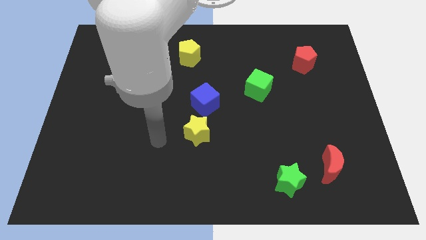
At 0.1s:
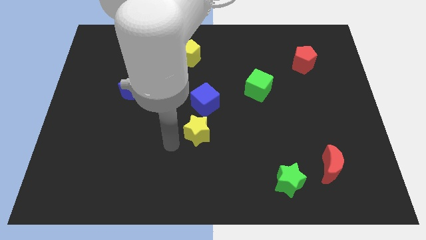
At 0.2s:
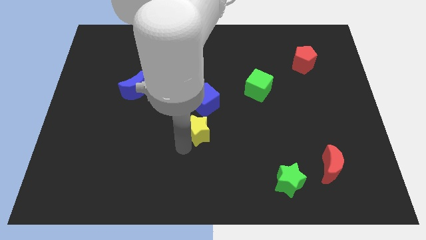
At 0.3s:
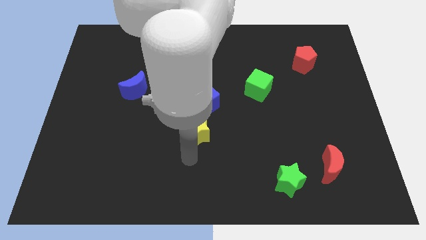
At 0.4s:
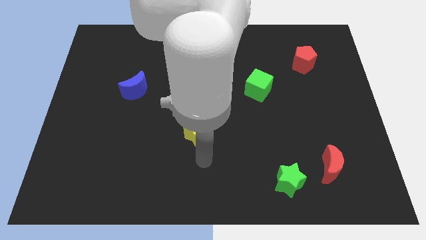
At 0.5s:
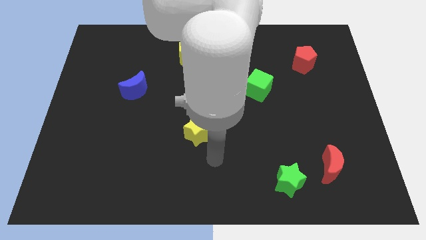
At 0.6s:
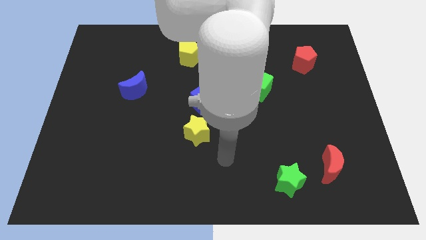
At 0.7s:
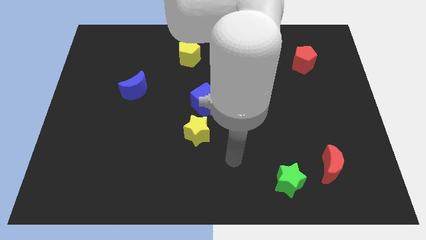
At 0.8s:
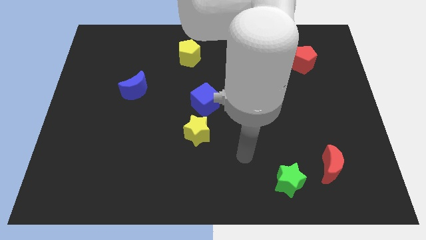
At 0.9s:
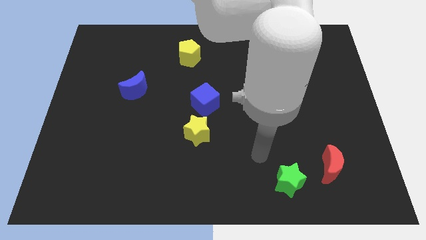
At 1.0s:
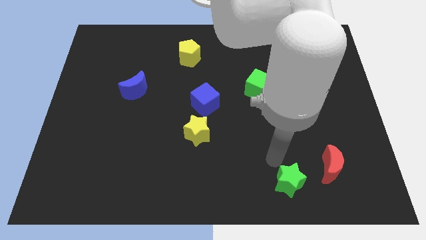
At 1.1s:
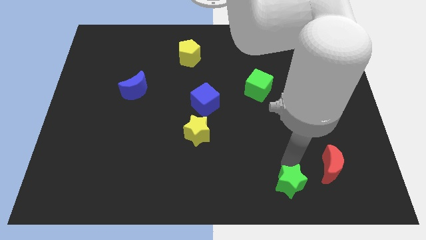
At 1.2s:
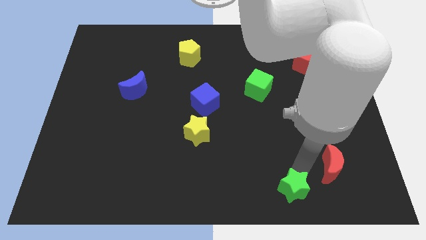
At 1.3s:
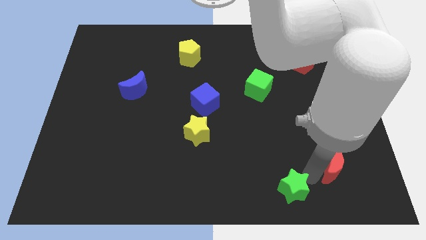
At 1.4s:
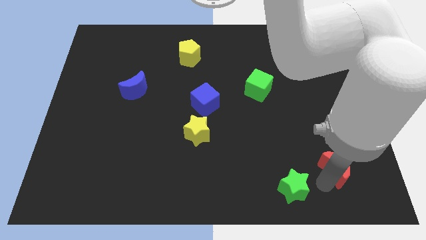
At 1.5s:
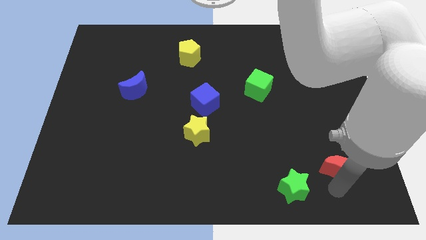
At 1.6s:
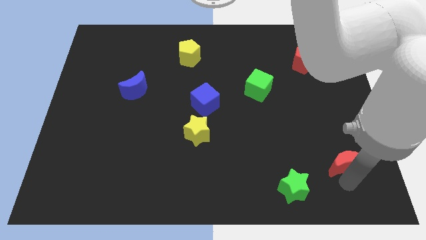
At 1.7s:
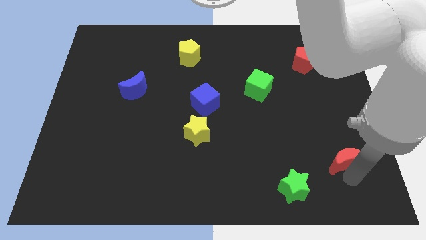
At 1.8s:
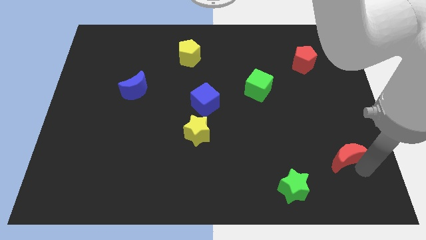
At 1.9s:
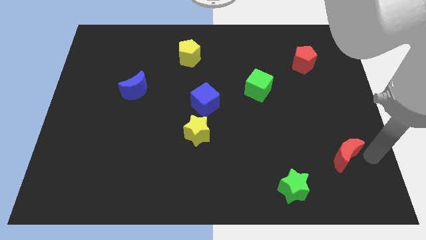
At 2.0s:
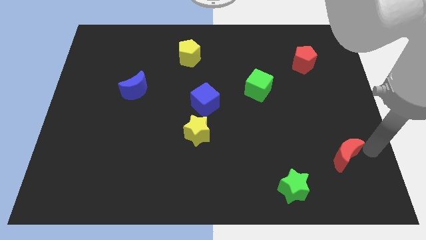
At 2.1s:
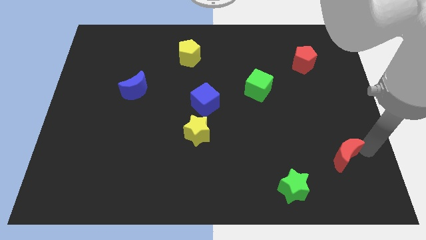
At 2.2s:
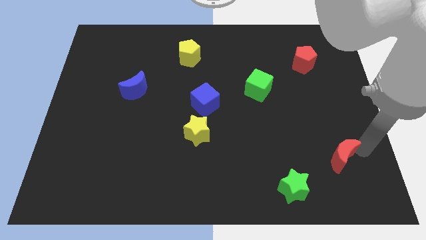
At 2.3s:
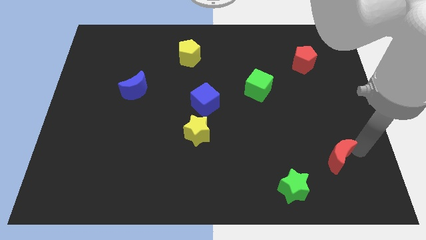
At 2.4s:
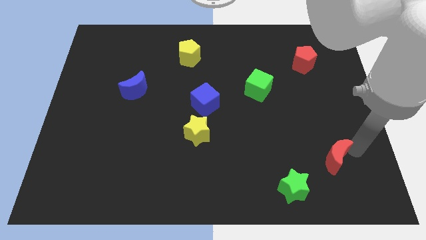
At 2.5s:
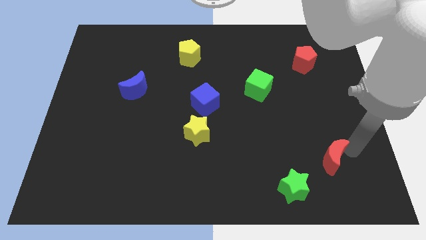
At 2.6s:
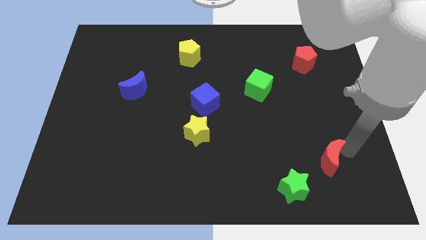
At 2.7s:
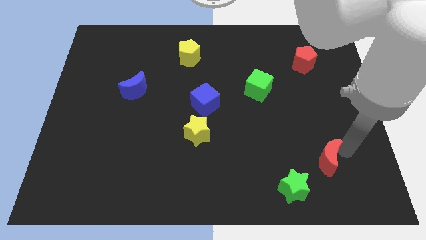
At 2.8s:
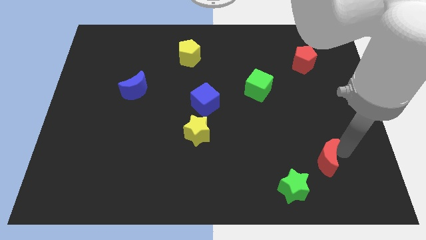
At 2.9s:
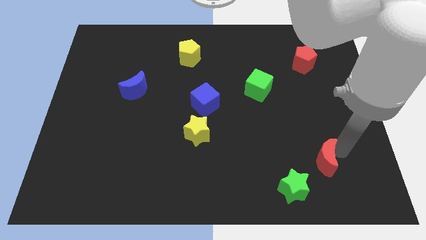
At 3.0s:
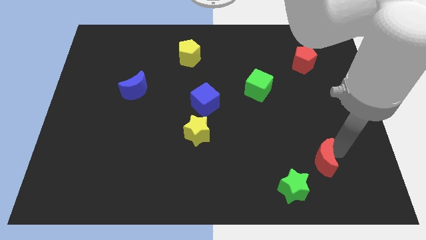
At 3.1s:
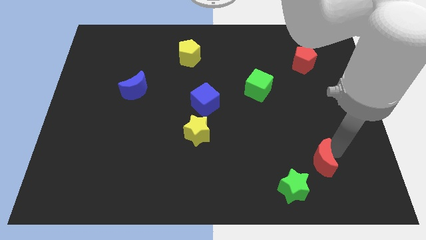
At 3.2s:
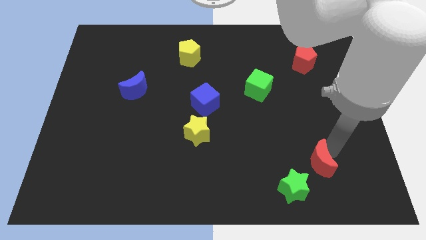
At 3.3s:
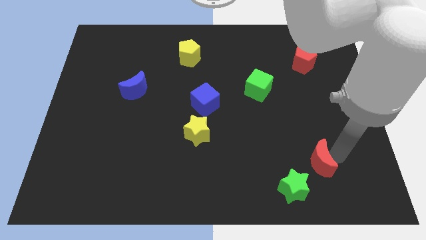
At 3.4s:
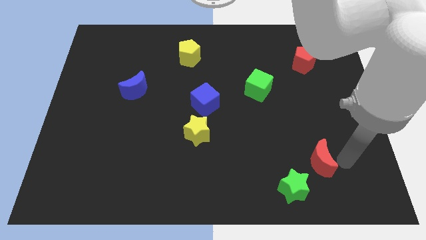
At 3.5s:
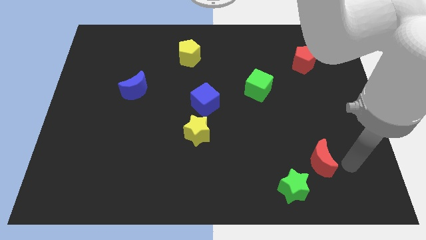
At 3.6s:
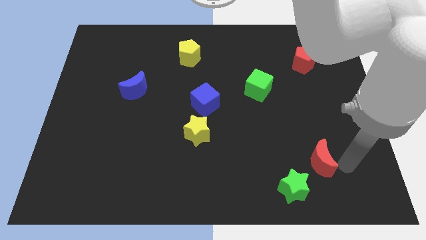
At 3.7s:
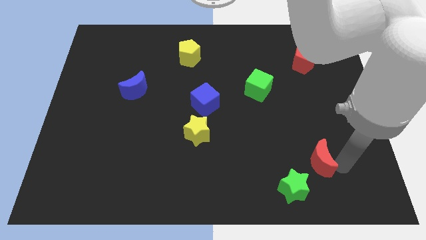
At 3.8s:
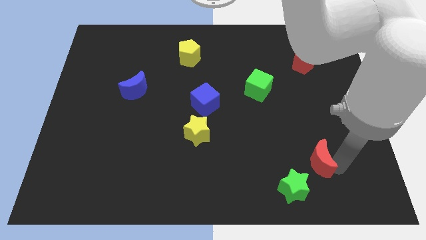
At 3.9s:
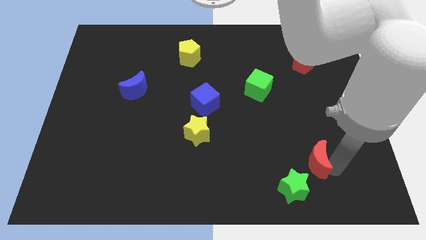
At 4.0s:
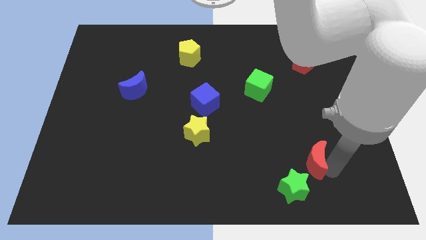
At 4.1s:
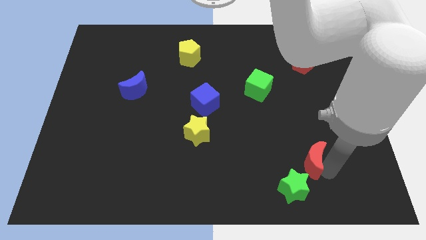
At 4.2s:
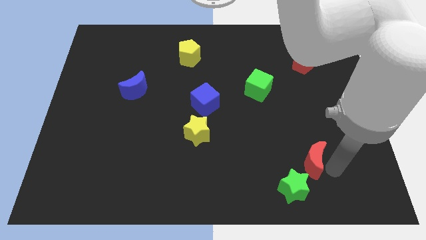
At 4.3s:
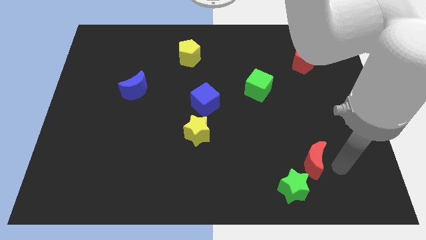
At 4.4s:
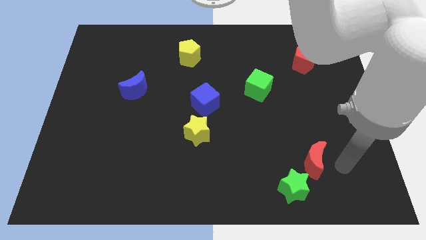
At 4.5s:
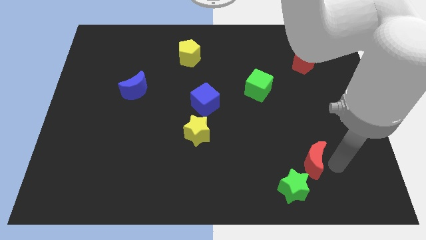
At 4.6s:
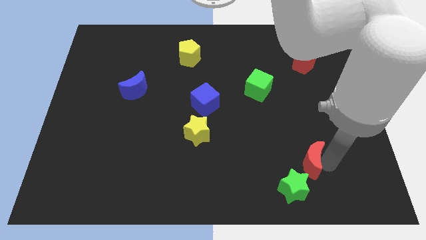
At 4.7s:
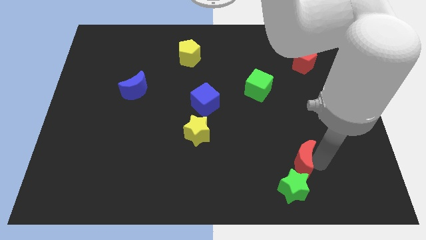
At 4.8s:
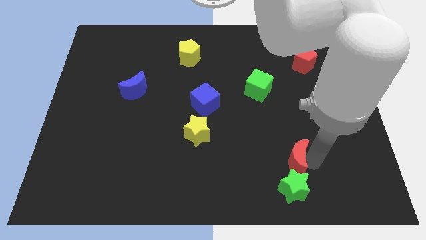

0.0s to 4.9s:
slide the red moon a little bit to the left

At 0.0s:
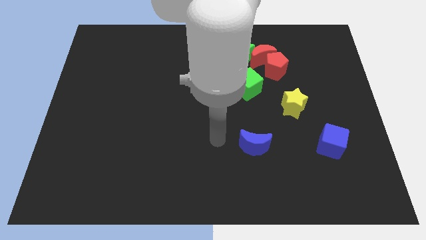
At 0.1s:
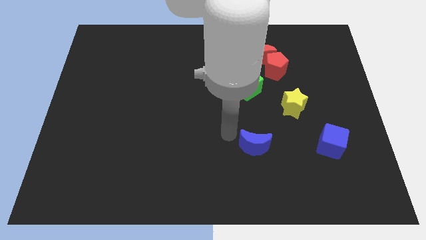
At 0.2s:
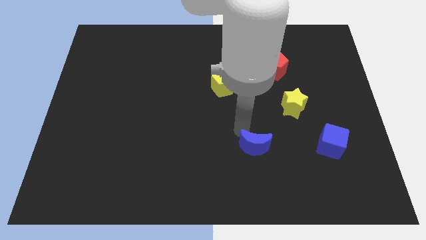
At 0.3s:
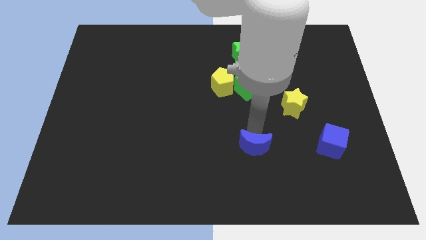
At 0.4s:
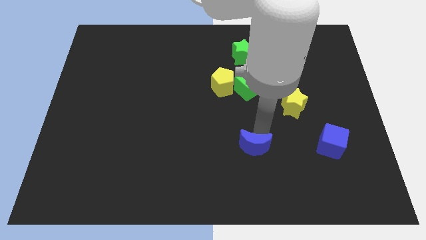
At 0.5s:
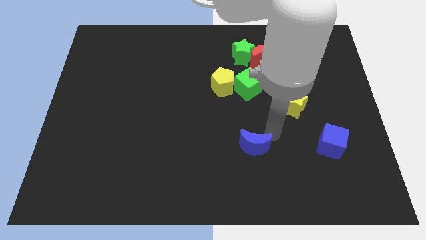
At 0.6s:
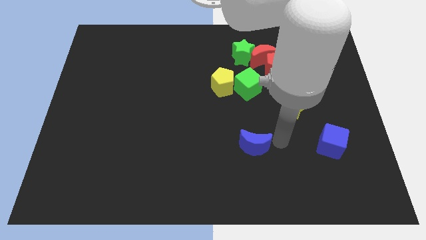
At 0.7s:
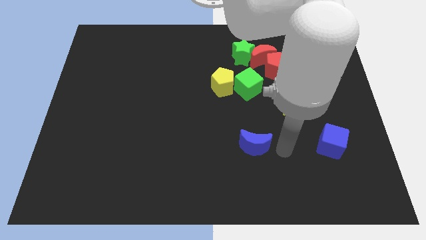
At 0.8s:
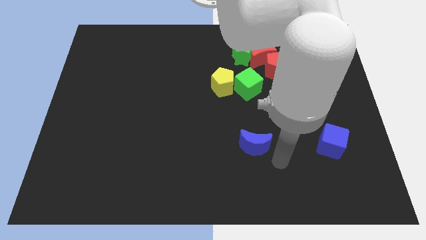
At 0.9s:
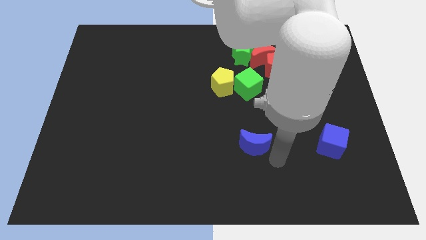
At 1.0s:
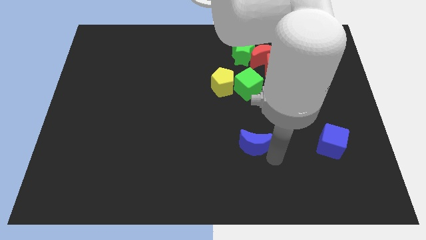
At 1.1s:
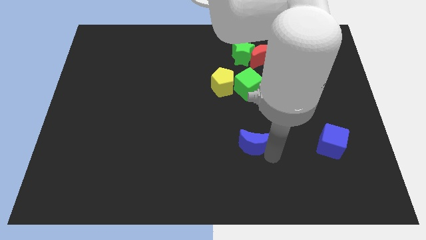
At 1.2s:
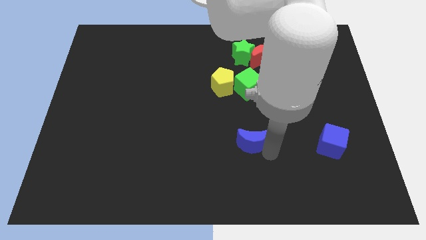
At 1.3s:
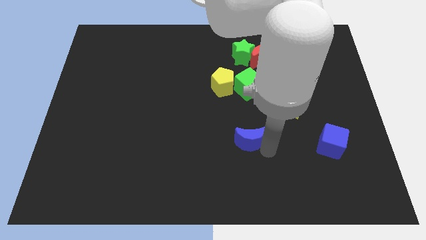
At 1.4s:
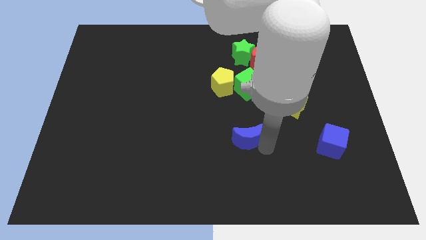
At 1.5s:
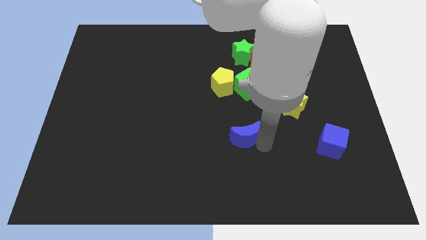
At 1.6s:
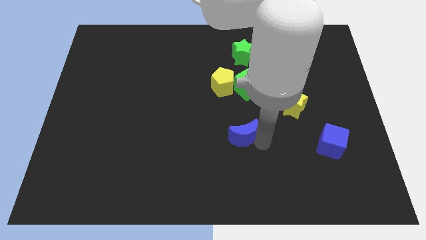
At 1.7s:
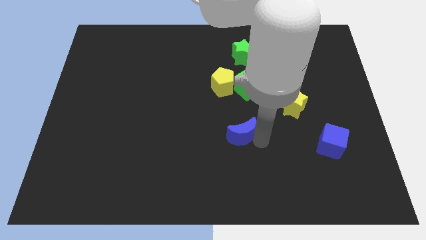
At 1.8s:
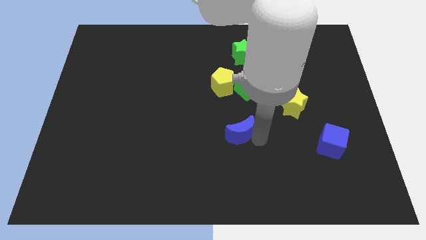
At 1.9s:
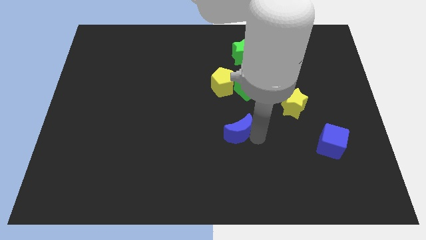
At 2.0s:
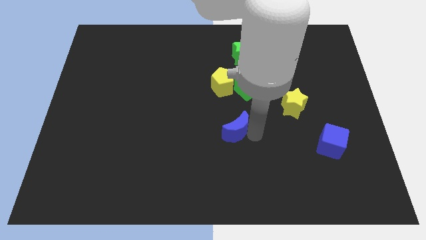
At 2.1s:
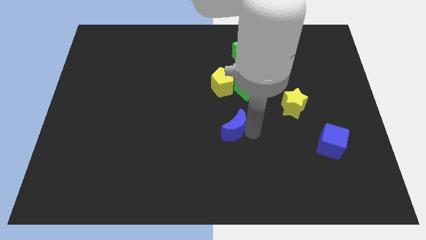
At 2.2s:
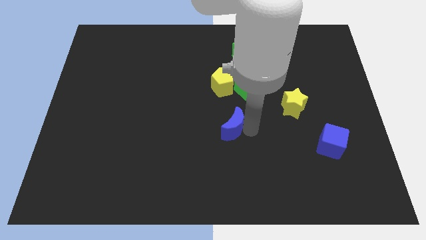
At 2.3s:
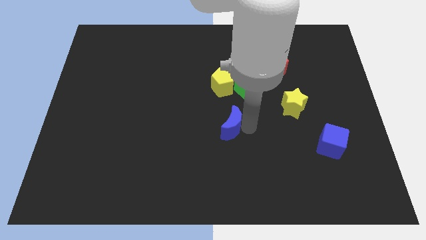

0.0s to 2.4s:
slightly push the blue moon up and then to the left

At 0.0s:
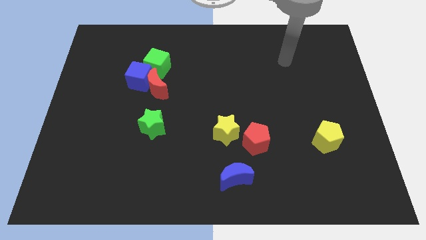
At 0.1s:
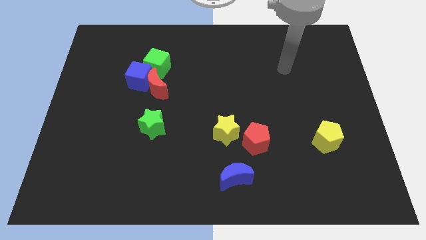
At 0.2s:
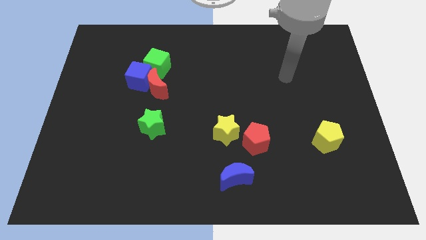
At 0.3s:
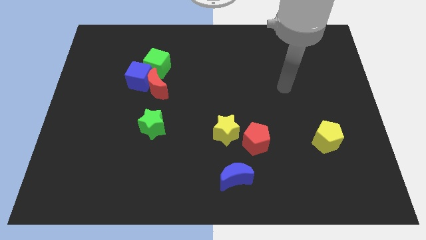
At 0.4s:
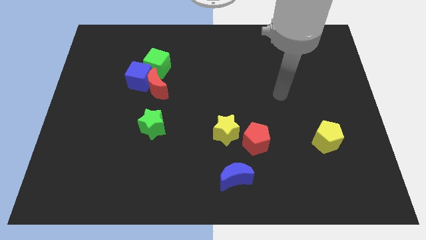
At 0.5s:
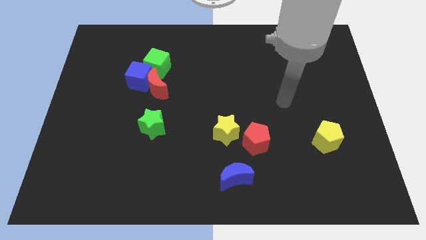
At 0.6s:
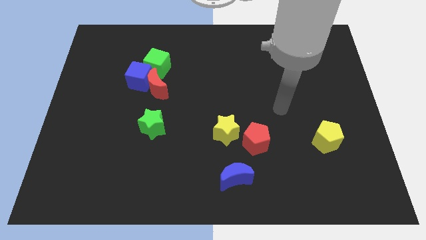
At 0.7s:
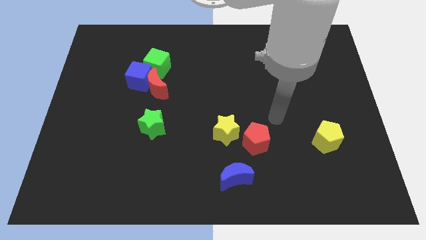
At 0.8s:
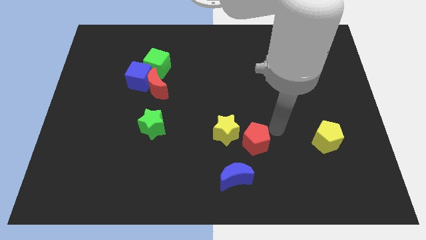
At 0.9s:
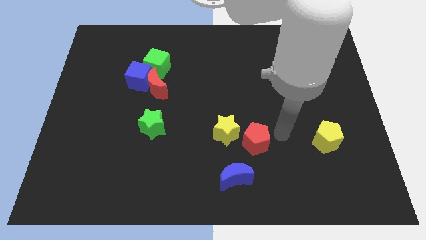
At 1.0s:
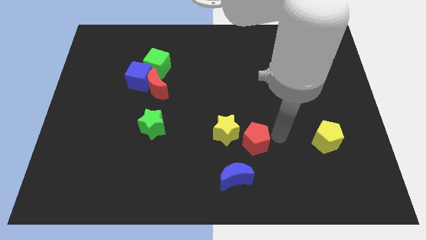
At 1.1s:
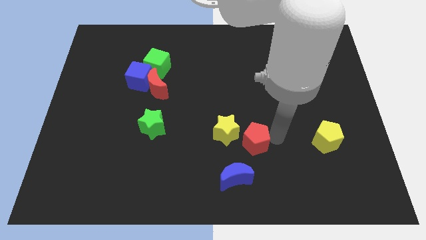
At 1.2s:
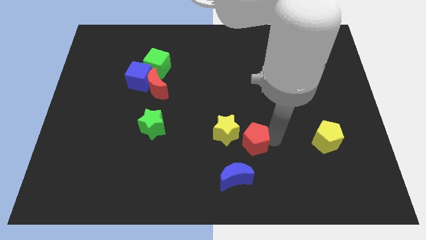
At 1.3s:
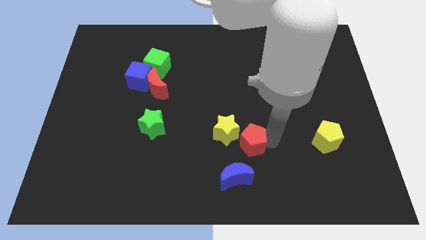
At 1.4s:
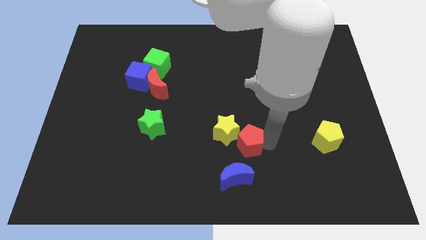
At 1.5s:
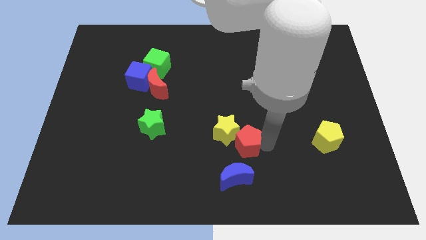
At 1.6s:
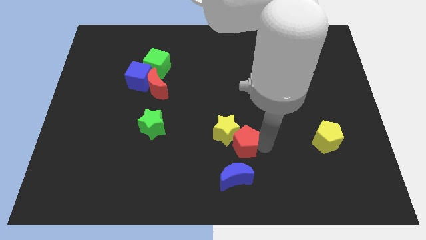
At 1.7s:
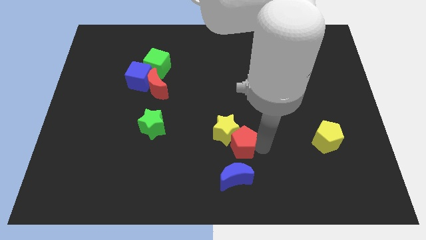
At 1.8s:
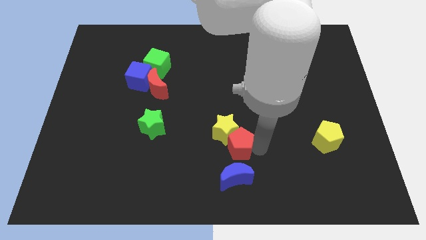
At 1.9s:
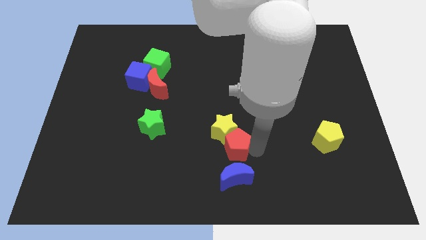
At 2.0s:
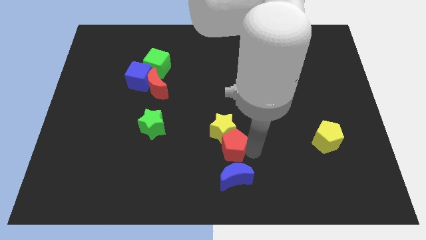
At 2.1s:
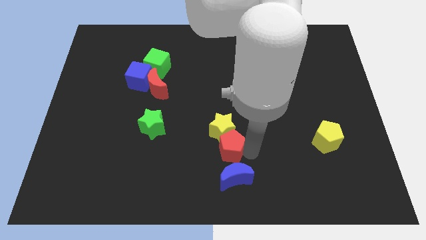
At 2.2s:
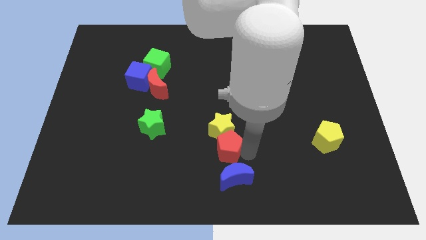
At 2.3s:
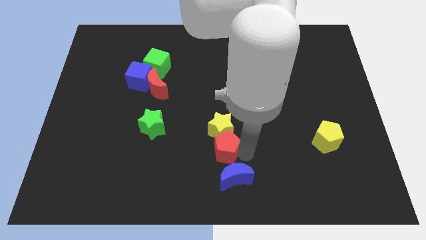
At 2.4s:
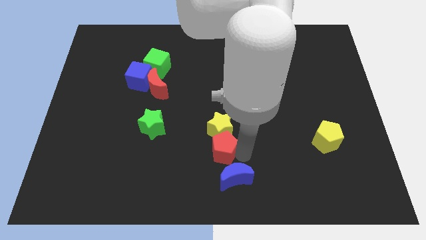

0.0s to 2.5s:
slightly move the red pentagon left
